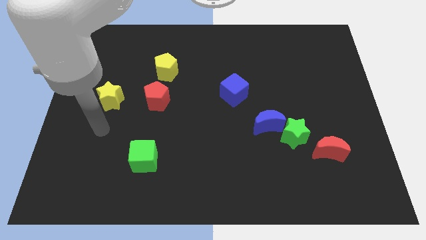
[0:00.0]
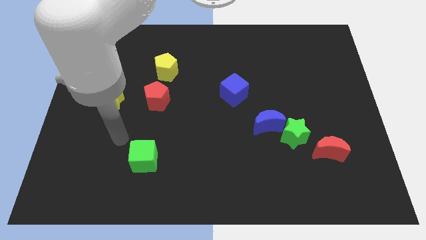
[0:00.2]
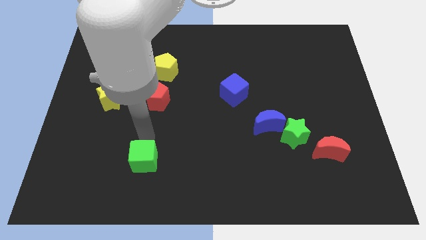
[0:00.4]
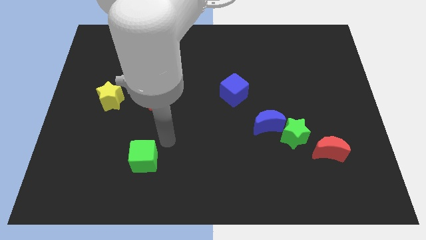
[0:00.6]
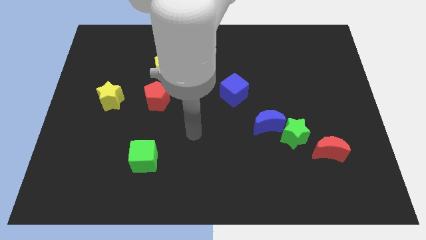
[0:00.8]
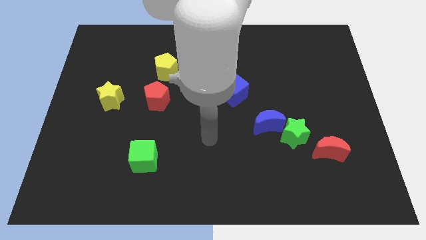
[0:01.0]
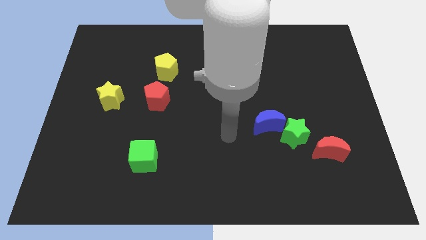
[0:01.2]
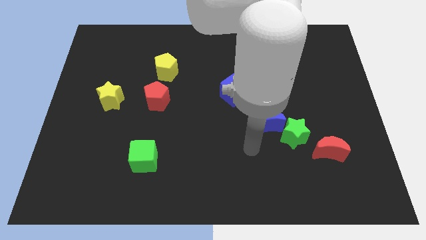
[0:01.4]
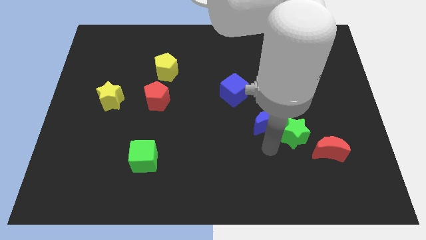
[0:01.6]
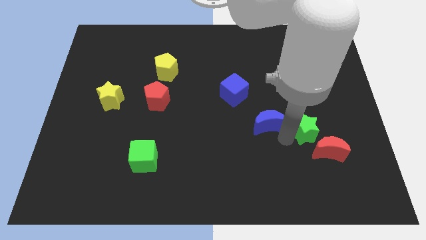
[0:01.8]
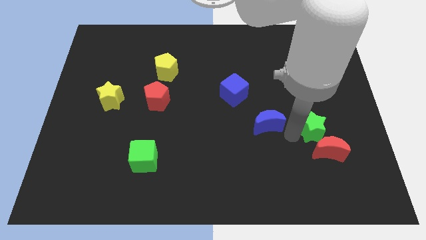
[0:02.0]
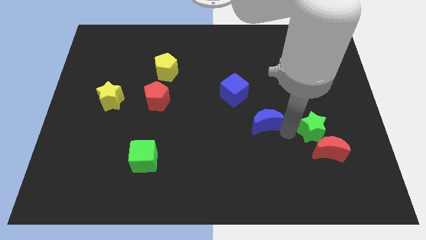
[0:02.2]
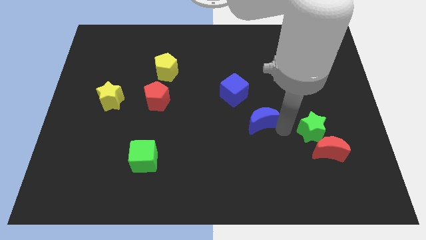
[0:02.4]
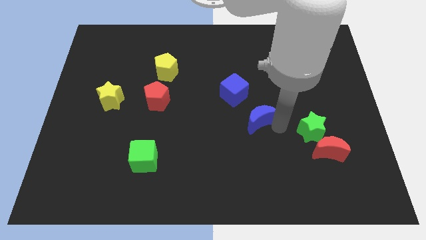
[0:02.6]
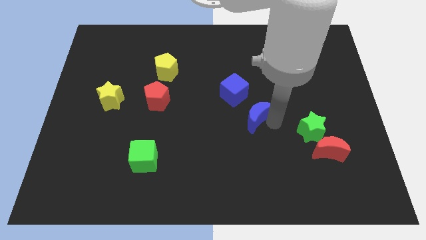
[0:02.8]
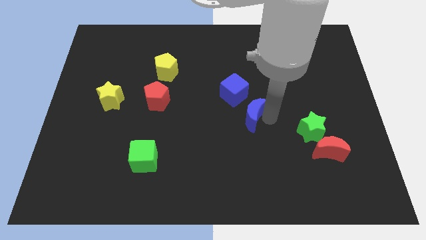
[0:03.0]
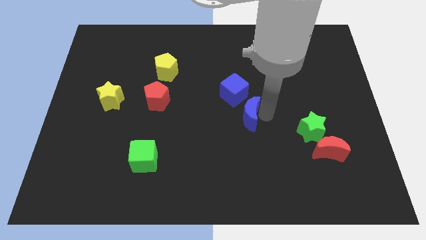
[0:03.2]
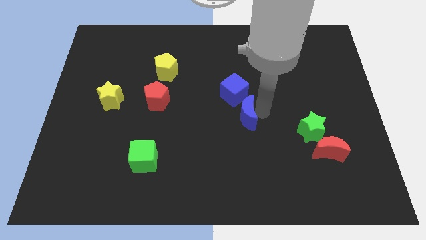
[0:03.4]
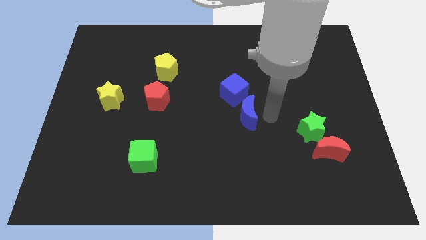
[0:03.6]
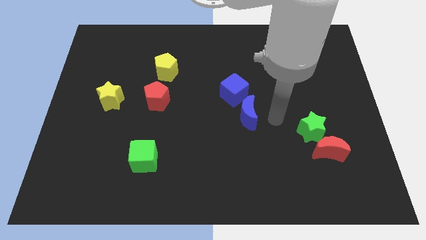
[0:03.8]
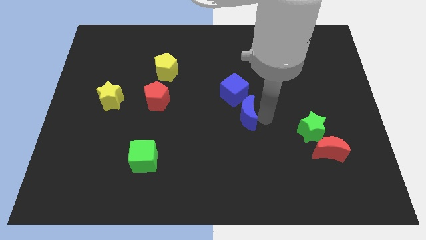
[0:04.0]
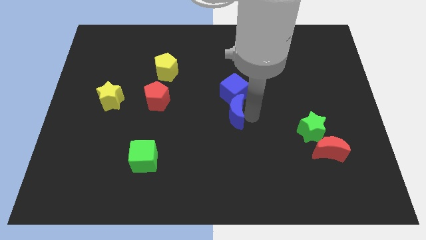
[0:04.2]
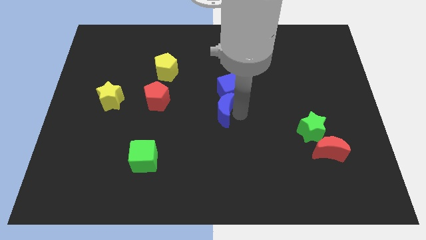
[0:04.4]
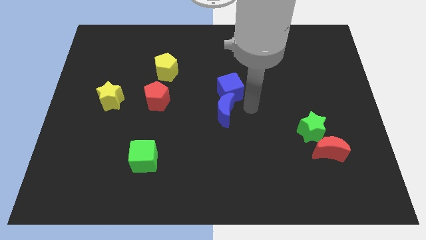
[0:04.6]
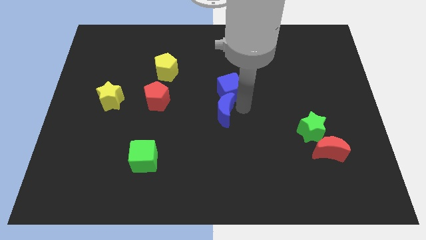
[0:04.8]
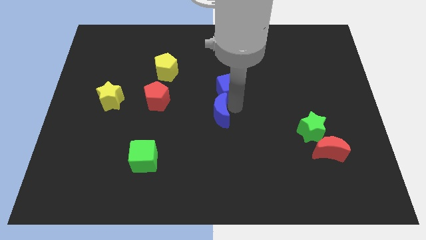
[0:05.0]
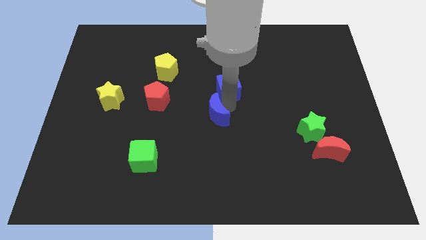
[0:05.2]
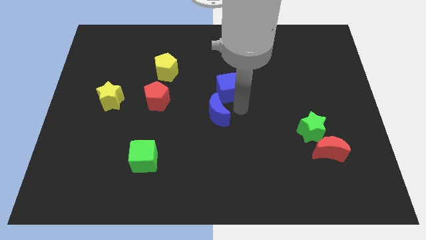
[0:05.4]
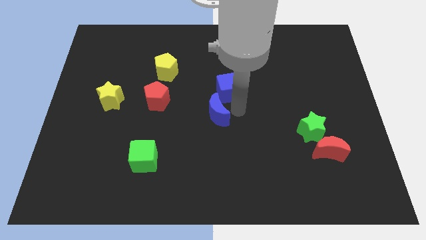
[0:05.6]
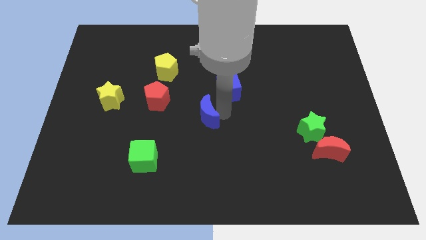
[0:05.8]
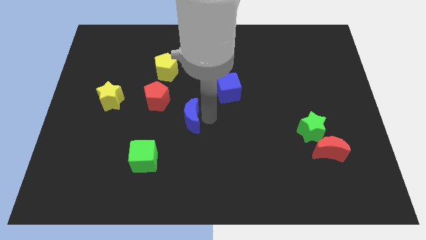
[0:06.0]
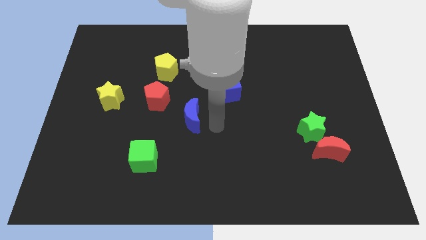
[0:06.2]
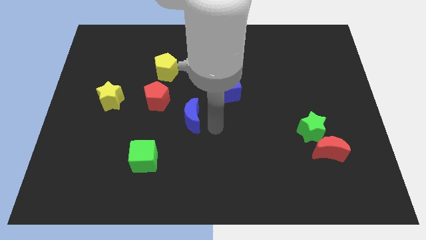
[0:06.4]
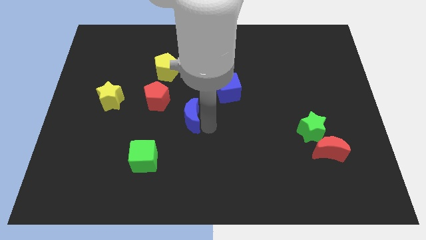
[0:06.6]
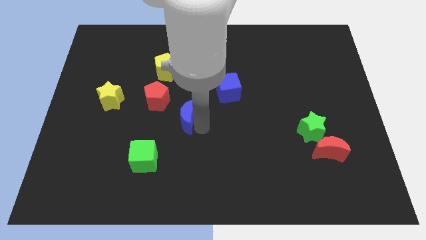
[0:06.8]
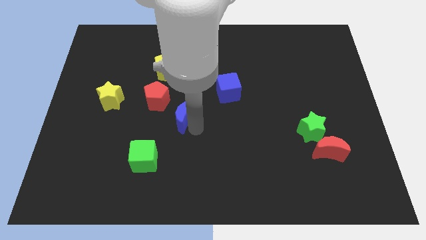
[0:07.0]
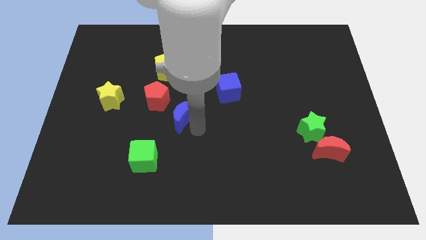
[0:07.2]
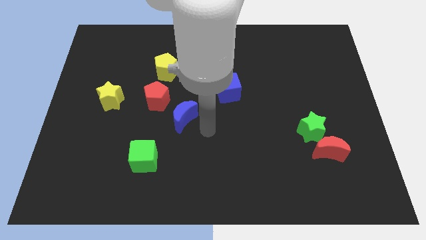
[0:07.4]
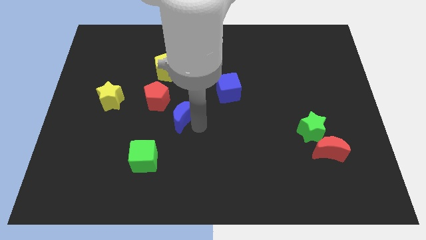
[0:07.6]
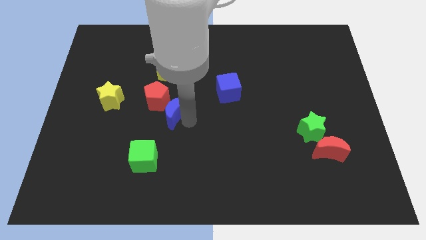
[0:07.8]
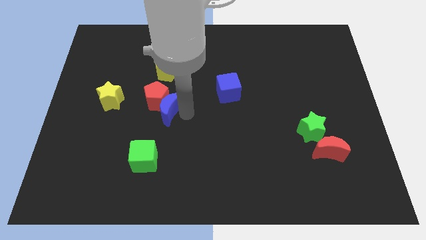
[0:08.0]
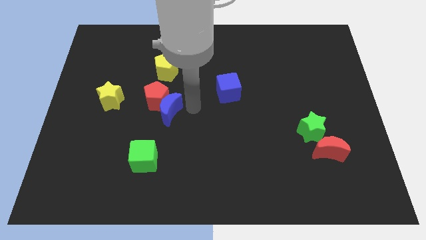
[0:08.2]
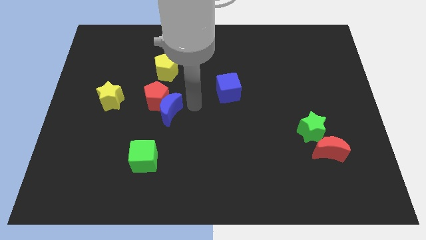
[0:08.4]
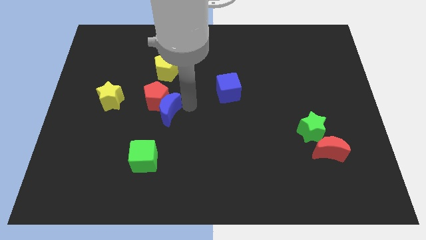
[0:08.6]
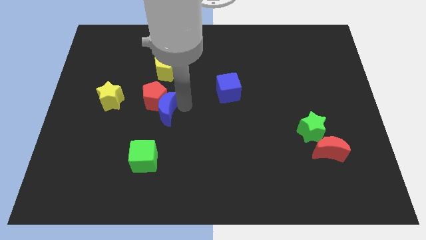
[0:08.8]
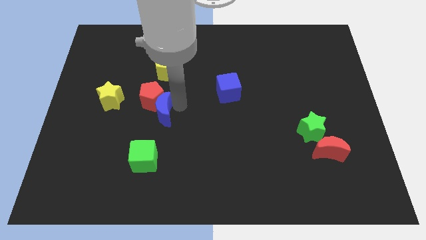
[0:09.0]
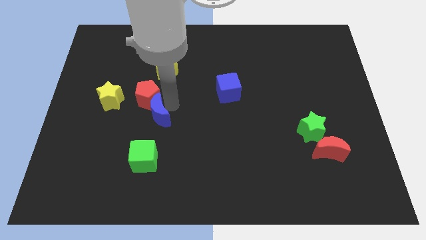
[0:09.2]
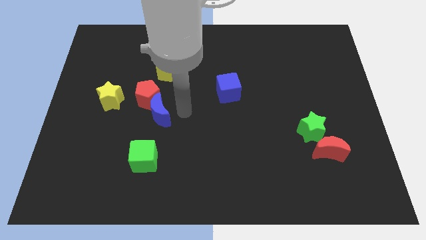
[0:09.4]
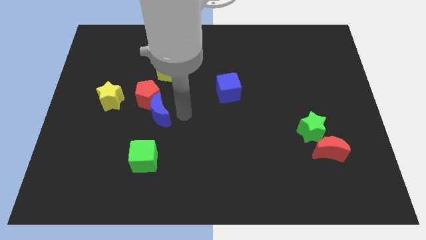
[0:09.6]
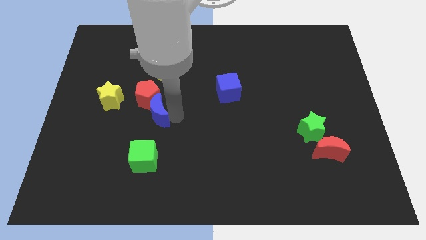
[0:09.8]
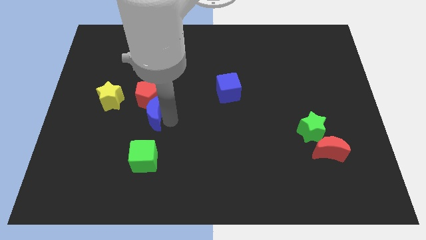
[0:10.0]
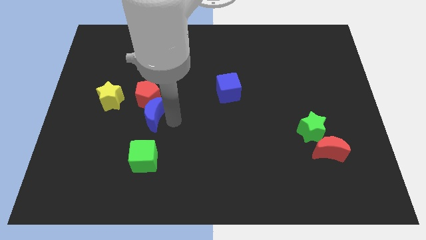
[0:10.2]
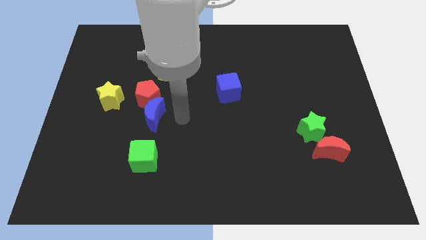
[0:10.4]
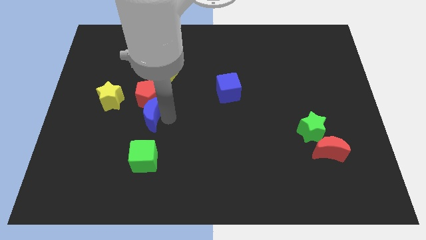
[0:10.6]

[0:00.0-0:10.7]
push the blue moon diagonally down and to the left of the red pentagon
